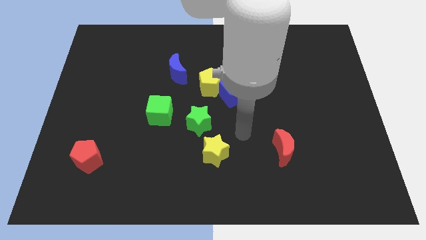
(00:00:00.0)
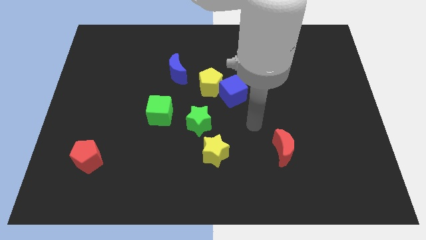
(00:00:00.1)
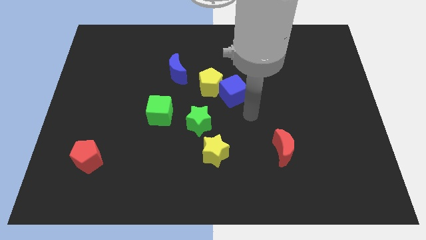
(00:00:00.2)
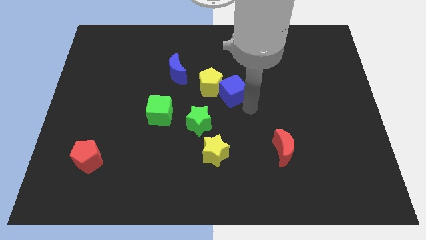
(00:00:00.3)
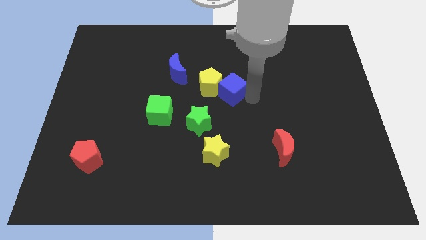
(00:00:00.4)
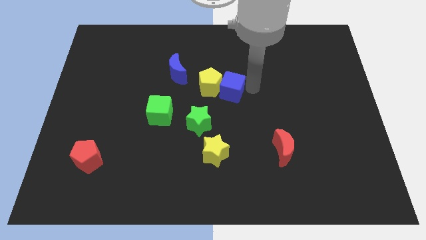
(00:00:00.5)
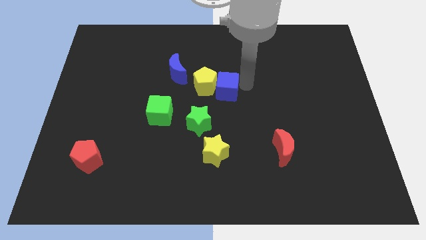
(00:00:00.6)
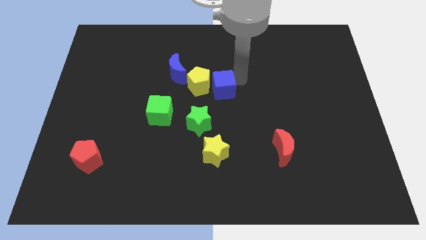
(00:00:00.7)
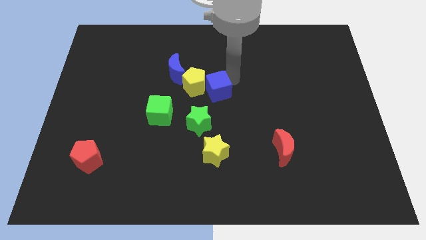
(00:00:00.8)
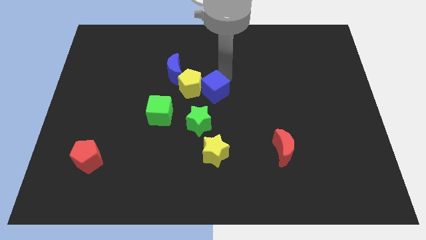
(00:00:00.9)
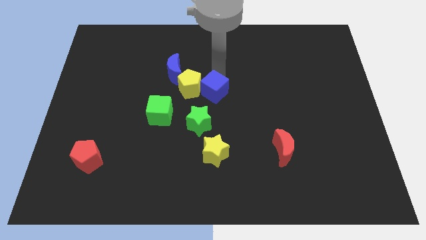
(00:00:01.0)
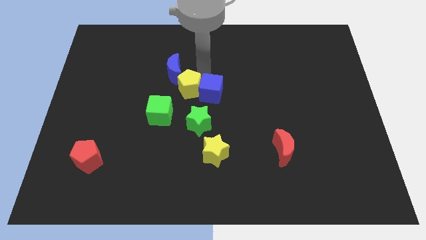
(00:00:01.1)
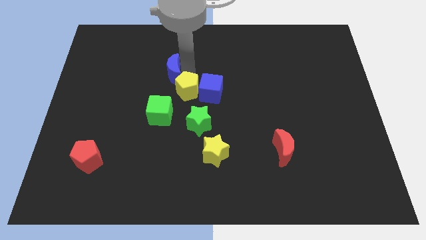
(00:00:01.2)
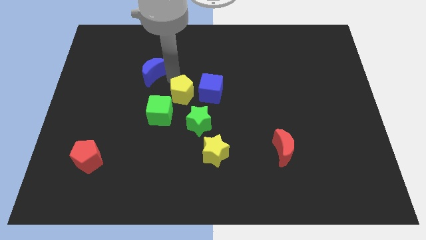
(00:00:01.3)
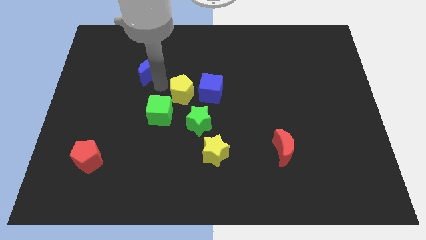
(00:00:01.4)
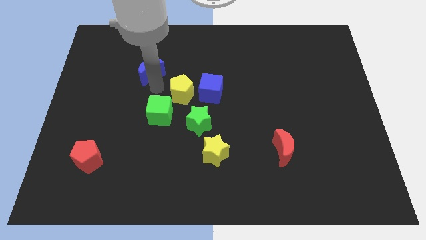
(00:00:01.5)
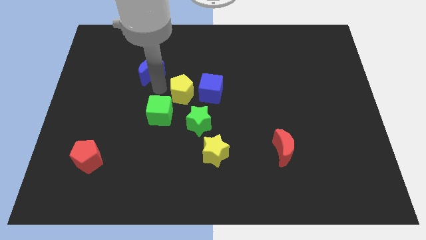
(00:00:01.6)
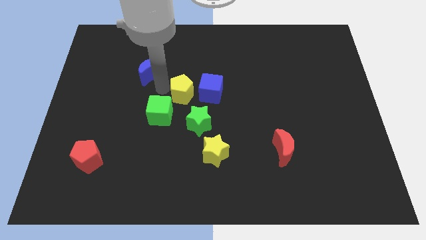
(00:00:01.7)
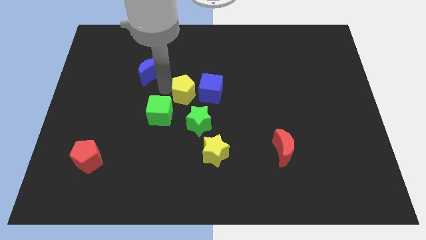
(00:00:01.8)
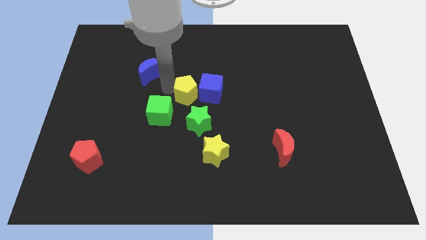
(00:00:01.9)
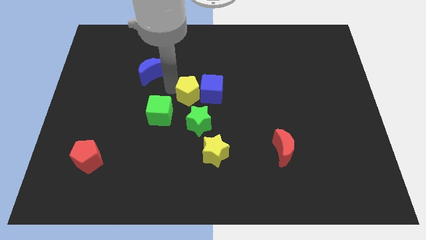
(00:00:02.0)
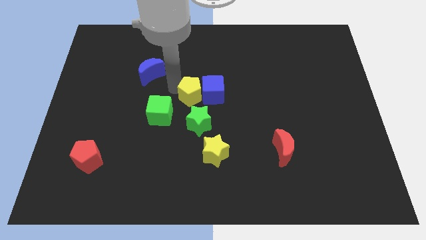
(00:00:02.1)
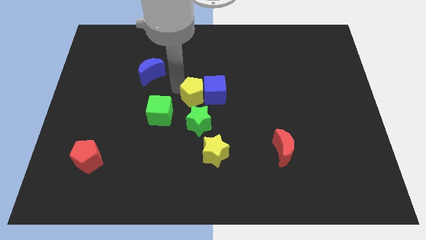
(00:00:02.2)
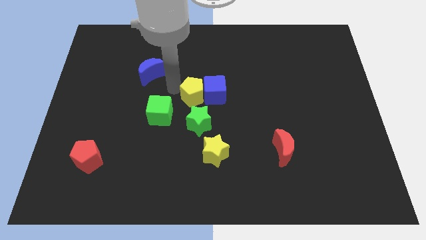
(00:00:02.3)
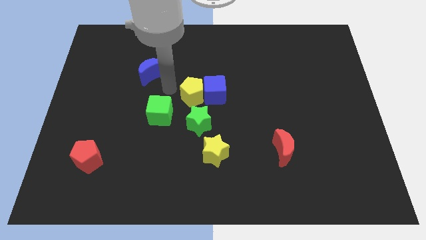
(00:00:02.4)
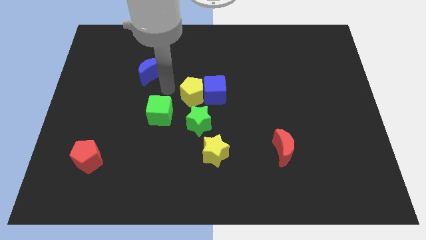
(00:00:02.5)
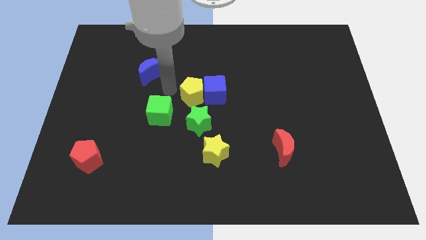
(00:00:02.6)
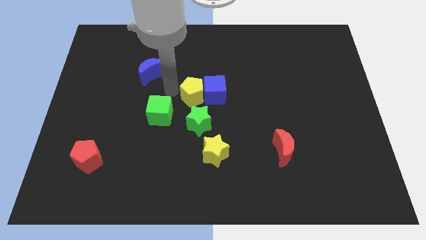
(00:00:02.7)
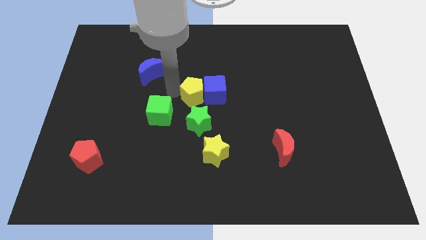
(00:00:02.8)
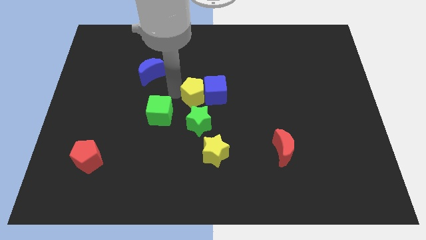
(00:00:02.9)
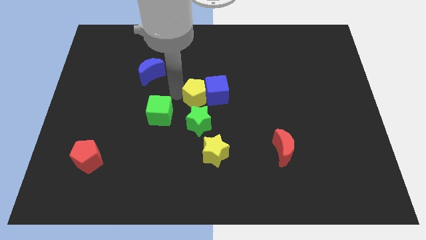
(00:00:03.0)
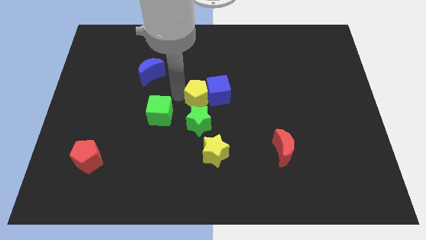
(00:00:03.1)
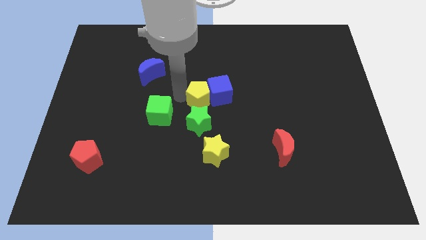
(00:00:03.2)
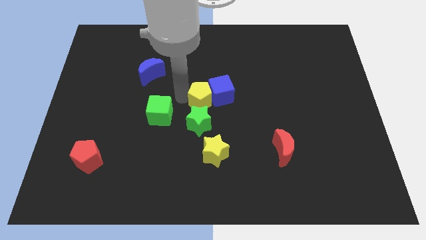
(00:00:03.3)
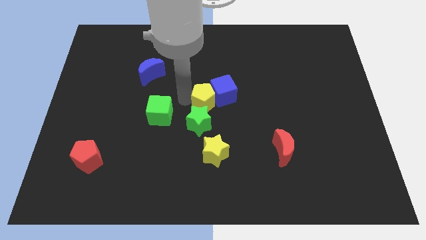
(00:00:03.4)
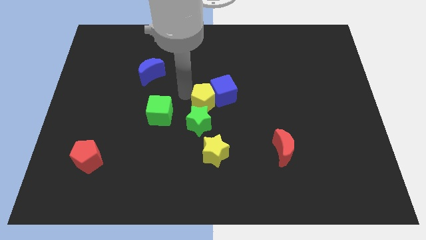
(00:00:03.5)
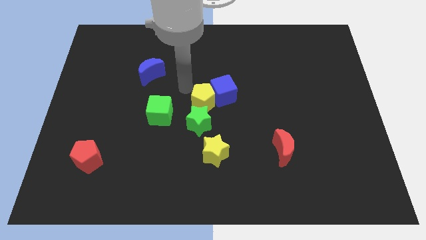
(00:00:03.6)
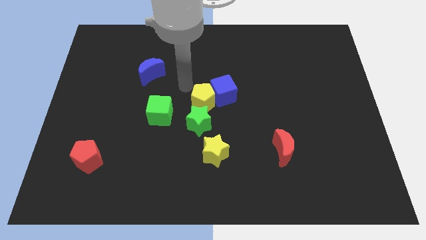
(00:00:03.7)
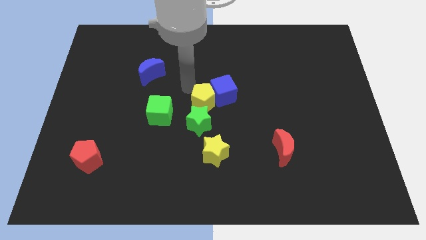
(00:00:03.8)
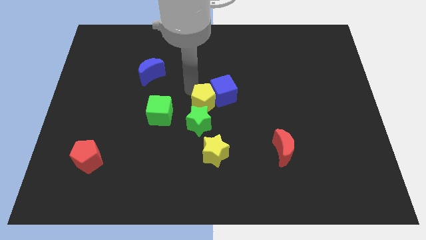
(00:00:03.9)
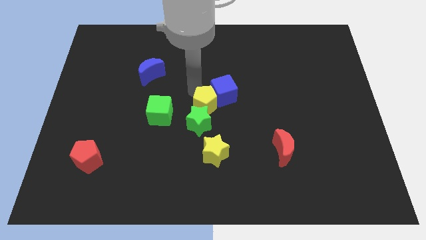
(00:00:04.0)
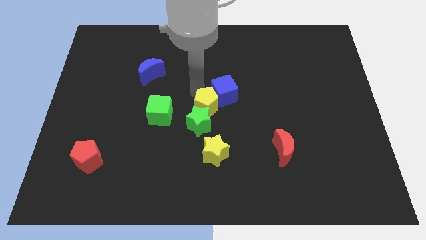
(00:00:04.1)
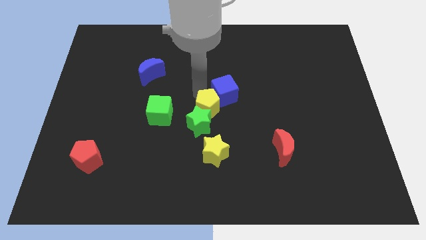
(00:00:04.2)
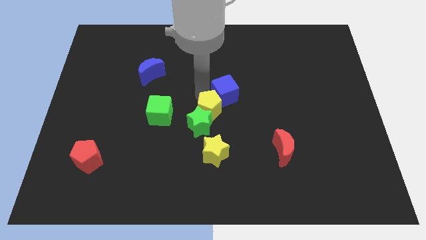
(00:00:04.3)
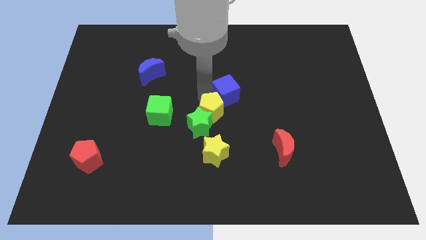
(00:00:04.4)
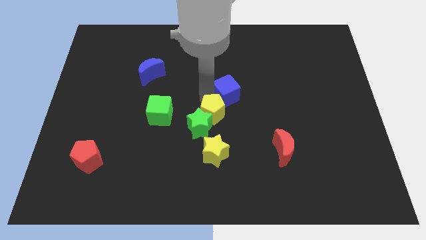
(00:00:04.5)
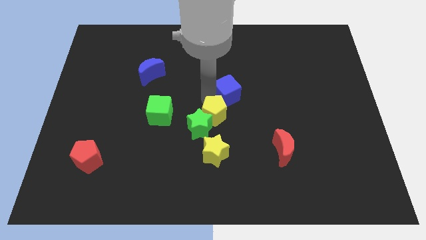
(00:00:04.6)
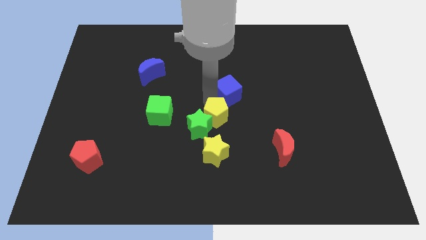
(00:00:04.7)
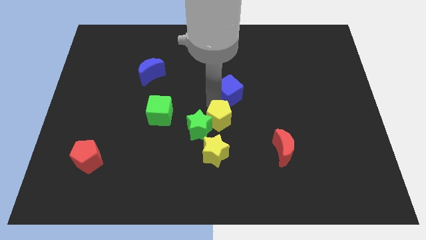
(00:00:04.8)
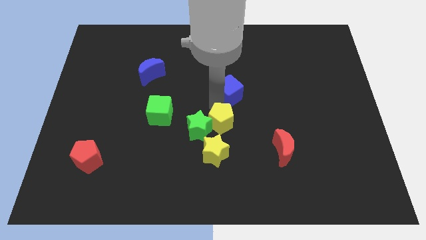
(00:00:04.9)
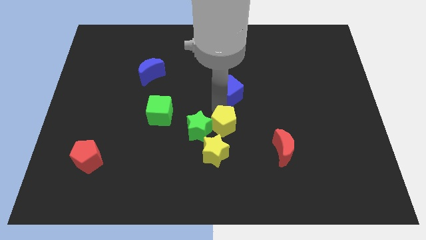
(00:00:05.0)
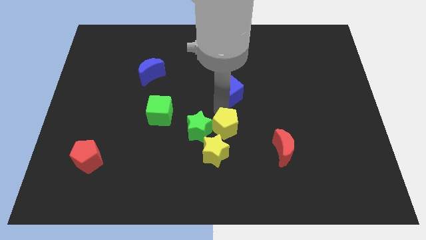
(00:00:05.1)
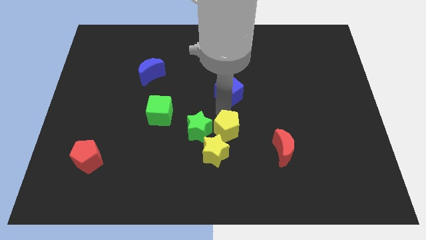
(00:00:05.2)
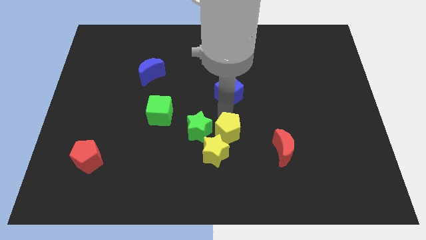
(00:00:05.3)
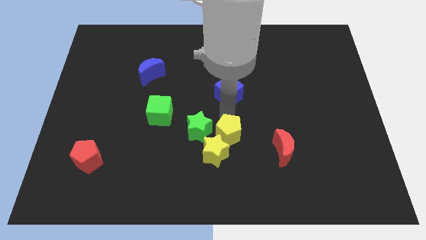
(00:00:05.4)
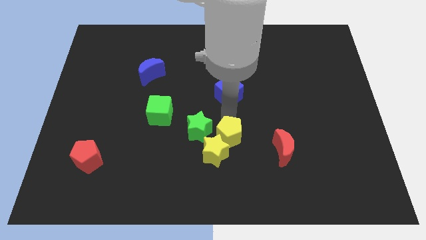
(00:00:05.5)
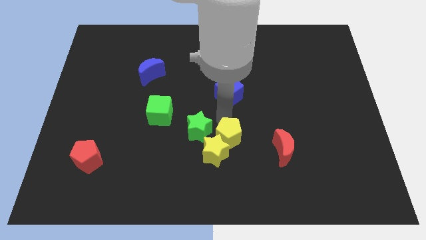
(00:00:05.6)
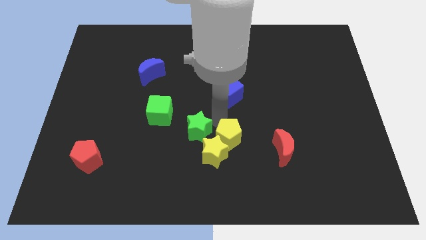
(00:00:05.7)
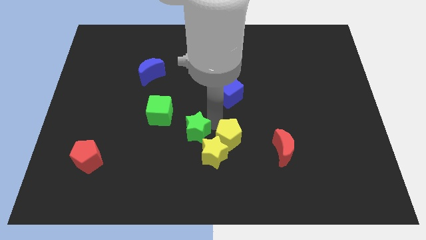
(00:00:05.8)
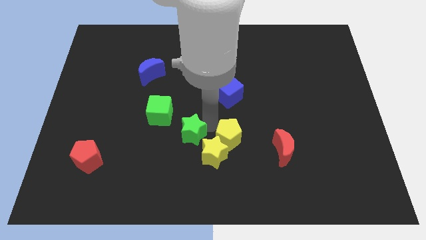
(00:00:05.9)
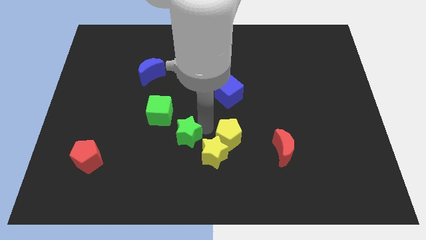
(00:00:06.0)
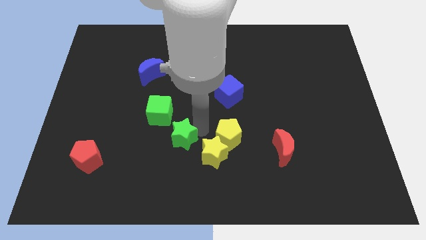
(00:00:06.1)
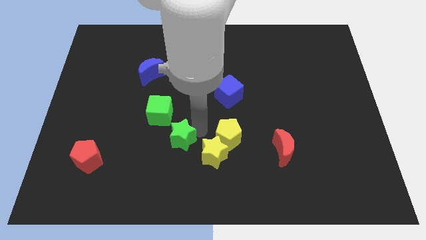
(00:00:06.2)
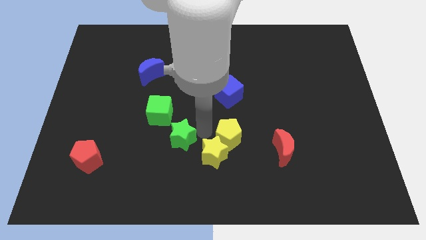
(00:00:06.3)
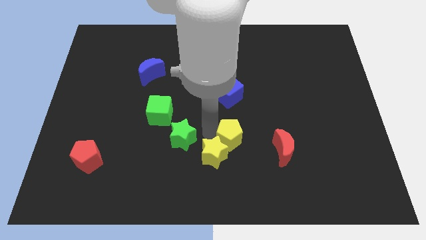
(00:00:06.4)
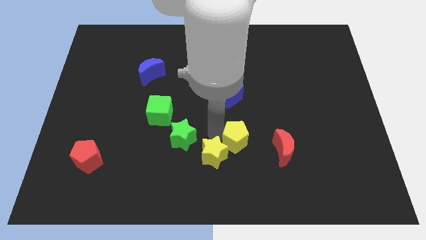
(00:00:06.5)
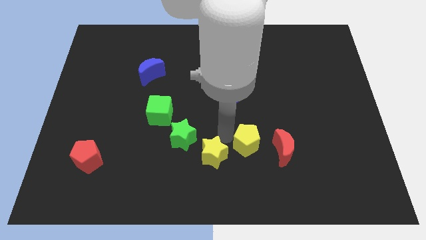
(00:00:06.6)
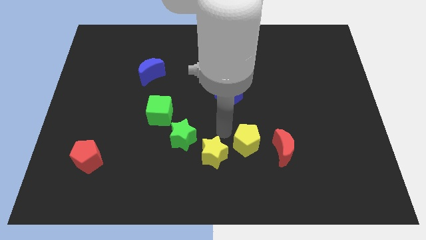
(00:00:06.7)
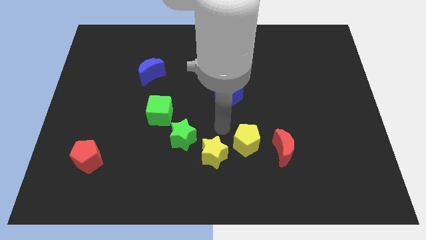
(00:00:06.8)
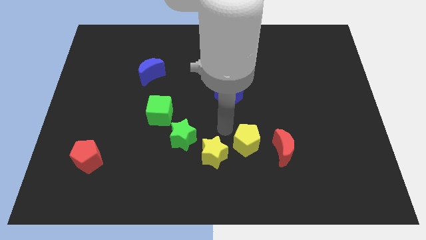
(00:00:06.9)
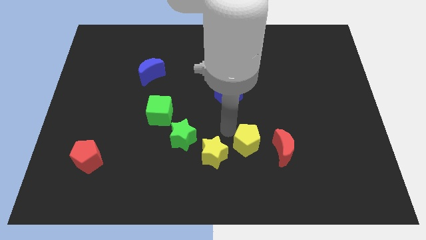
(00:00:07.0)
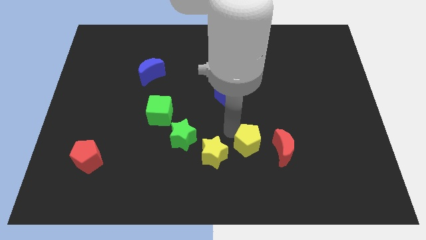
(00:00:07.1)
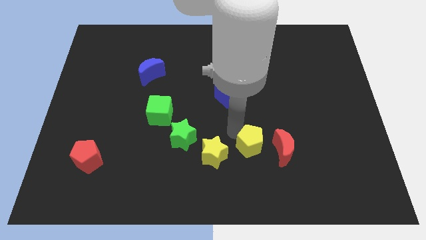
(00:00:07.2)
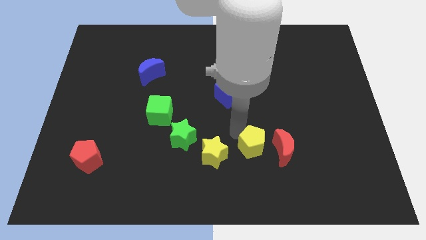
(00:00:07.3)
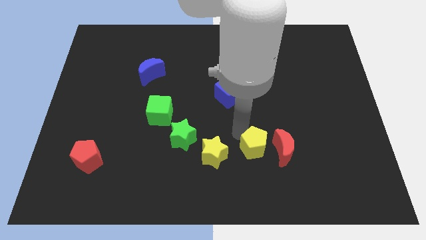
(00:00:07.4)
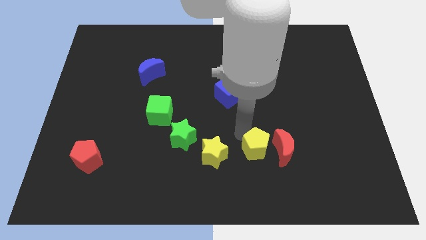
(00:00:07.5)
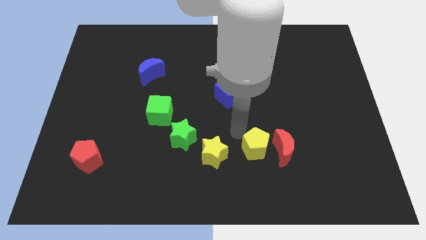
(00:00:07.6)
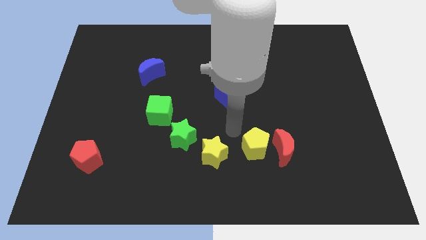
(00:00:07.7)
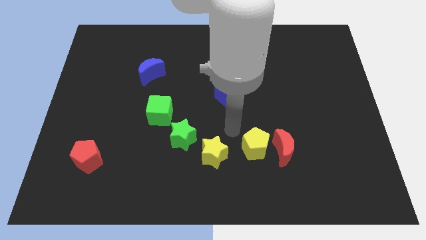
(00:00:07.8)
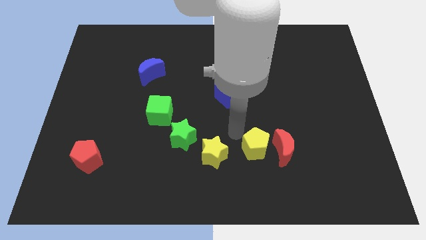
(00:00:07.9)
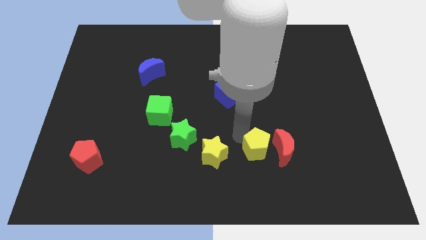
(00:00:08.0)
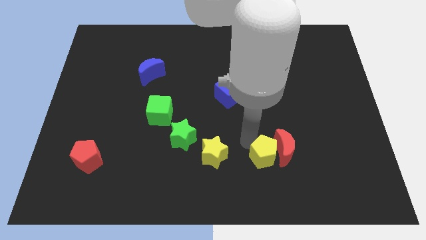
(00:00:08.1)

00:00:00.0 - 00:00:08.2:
move the yellow pentagon down and to the right

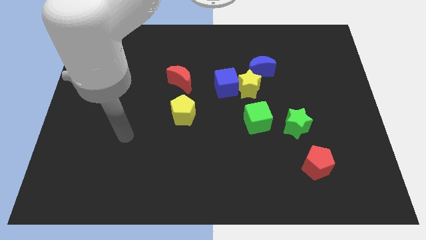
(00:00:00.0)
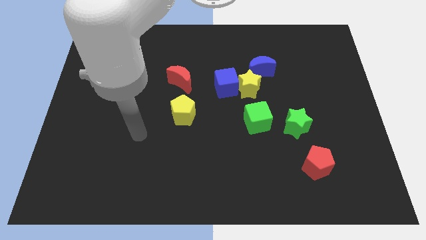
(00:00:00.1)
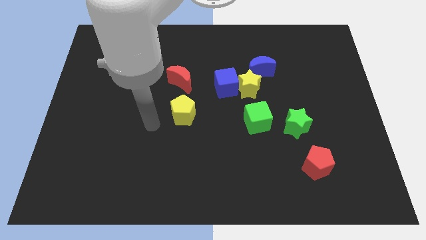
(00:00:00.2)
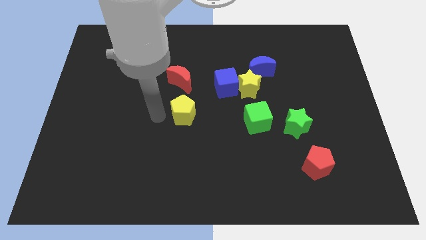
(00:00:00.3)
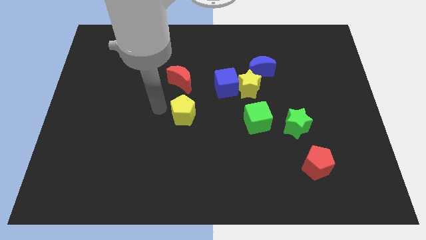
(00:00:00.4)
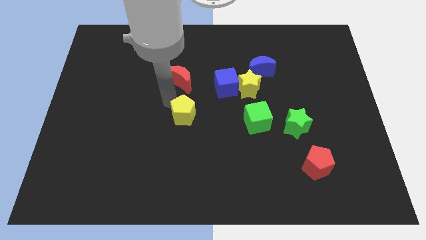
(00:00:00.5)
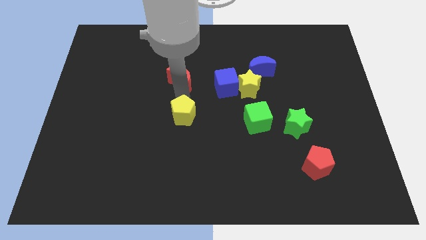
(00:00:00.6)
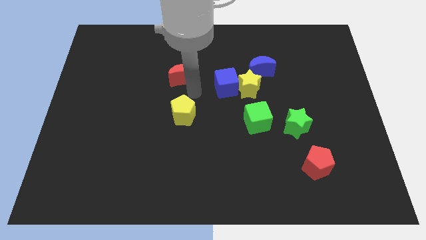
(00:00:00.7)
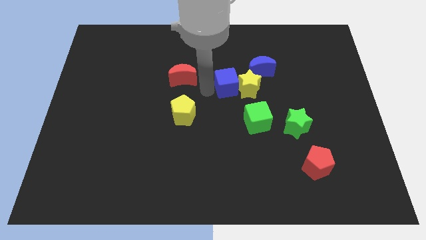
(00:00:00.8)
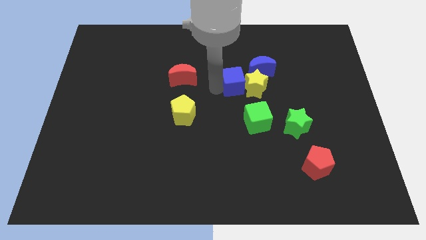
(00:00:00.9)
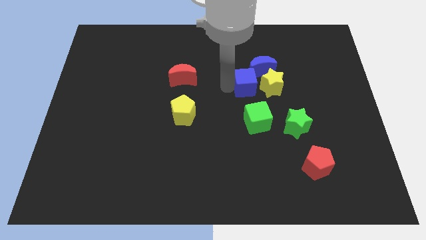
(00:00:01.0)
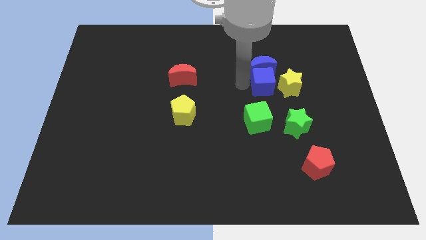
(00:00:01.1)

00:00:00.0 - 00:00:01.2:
move the yellow star a bit right
